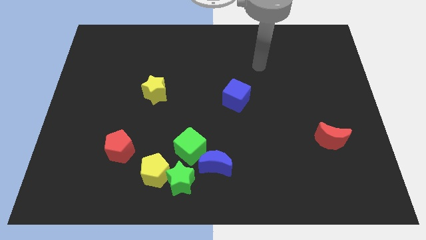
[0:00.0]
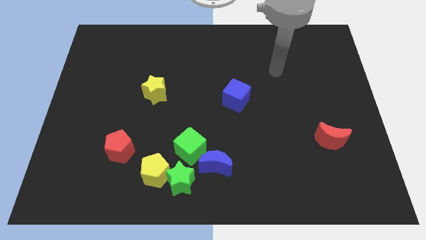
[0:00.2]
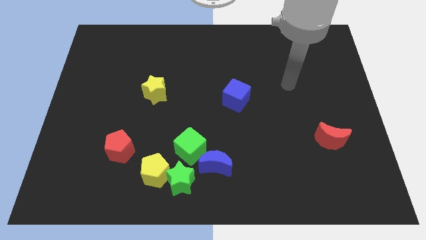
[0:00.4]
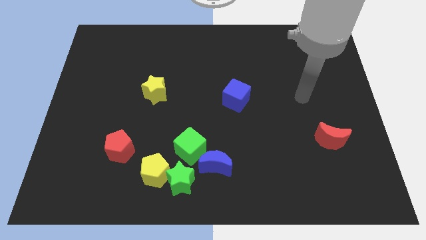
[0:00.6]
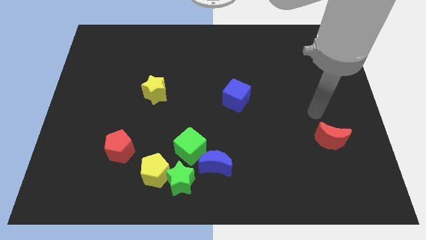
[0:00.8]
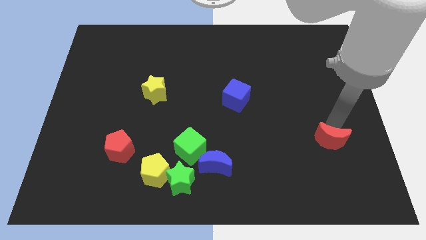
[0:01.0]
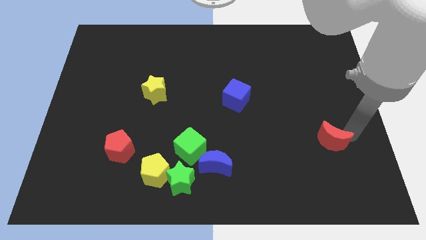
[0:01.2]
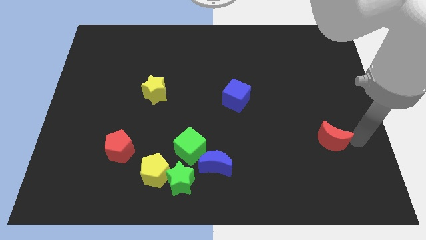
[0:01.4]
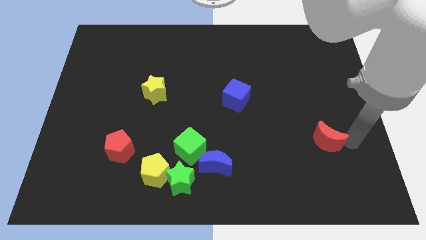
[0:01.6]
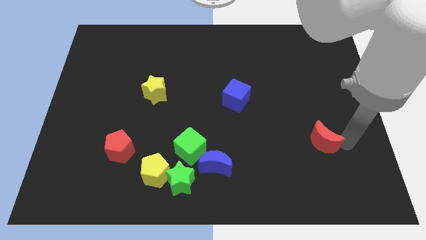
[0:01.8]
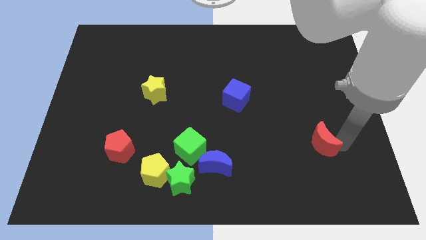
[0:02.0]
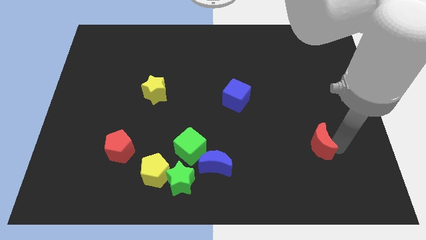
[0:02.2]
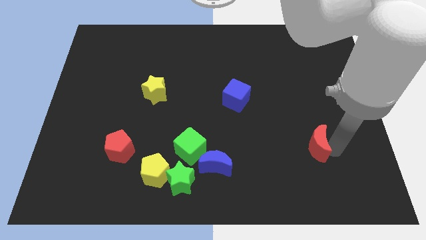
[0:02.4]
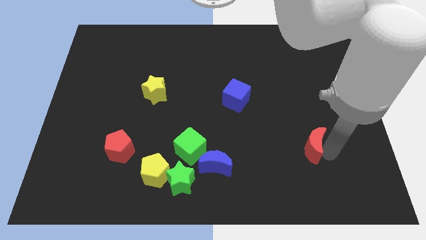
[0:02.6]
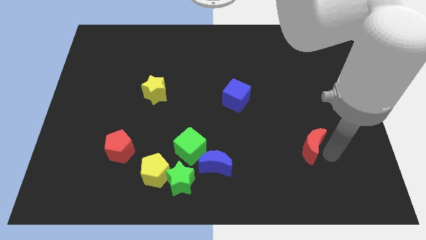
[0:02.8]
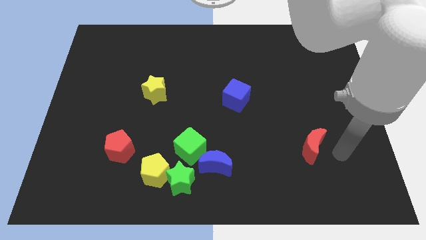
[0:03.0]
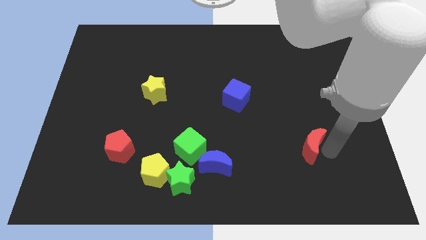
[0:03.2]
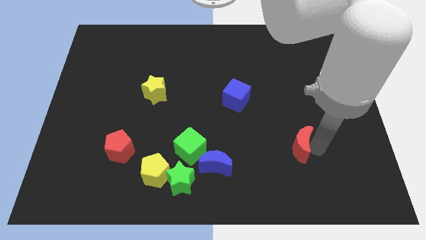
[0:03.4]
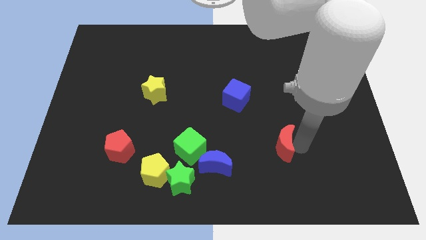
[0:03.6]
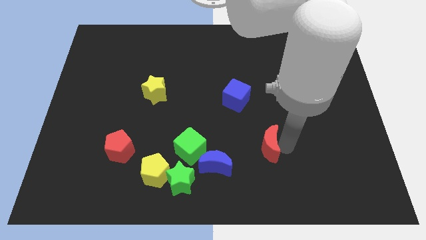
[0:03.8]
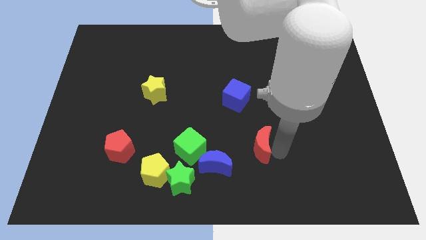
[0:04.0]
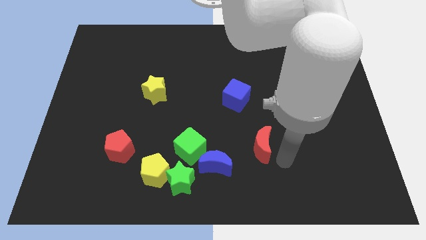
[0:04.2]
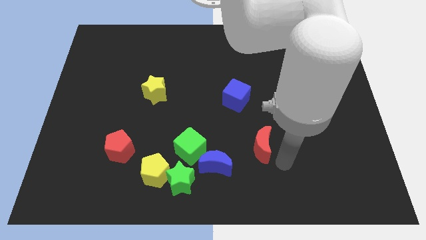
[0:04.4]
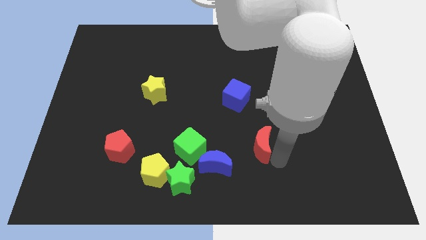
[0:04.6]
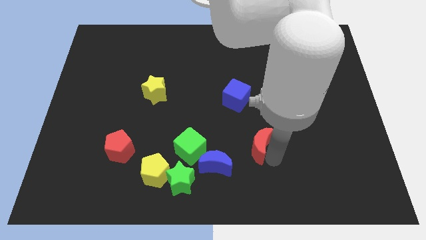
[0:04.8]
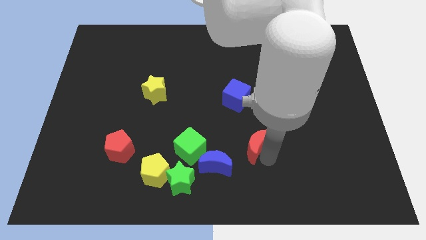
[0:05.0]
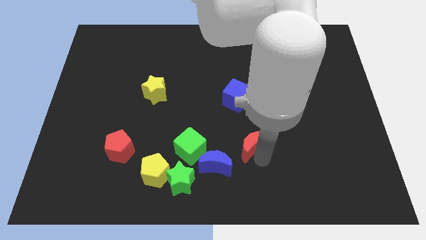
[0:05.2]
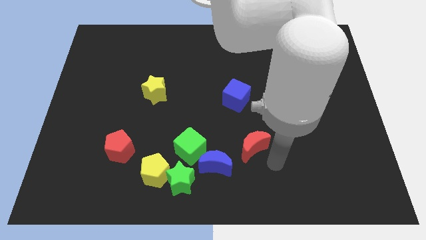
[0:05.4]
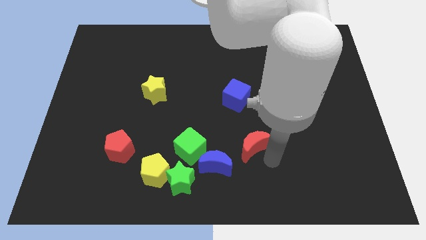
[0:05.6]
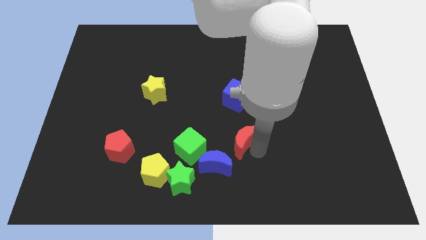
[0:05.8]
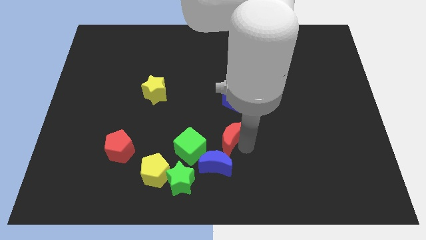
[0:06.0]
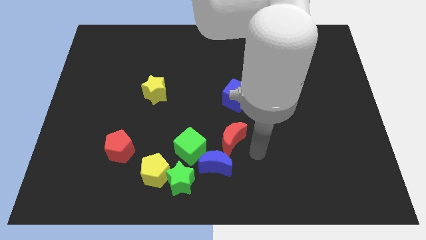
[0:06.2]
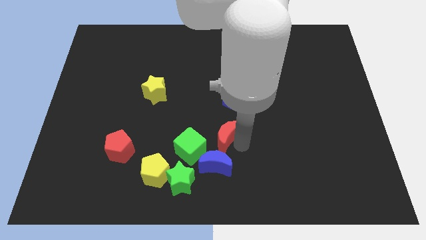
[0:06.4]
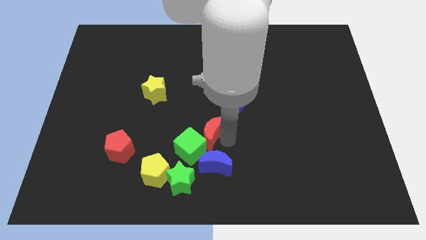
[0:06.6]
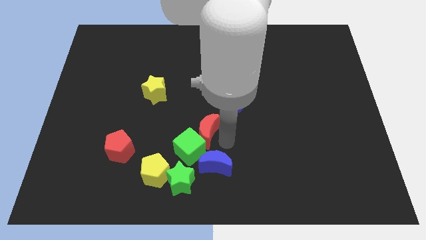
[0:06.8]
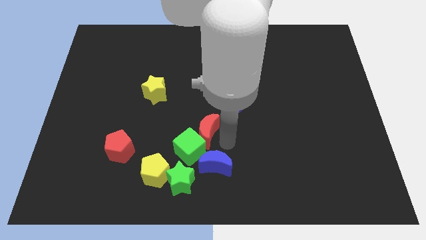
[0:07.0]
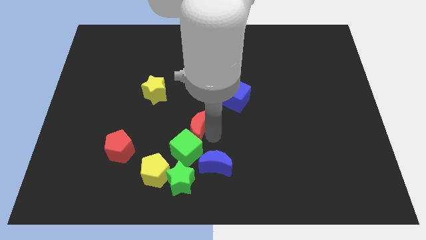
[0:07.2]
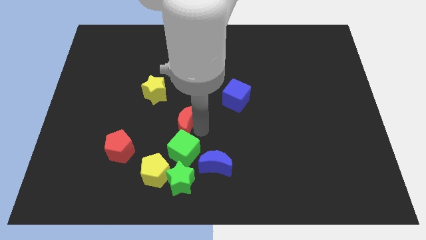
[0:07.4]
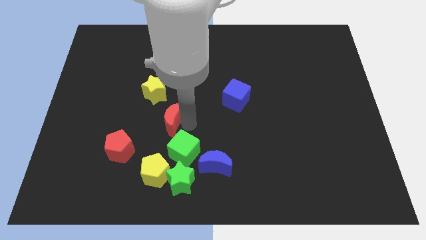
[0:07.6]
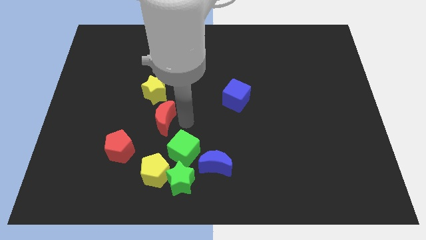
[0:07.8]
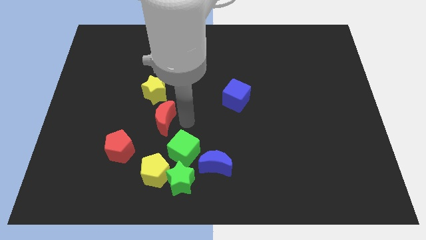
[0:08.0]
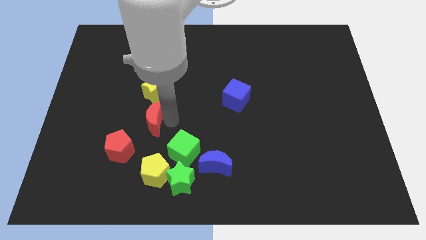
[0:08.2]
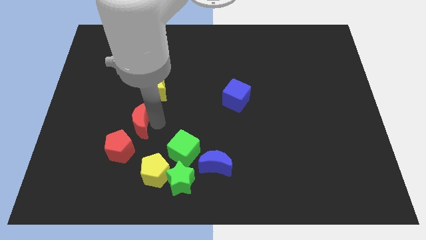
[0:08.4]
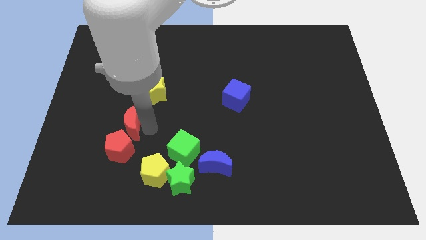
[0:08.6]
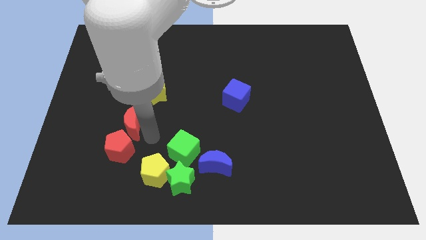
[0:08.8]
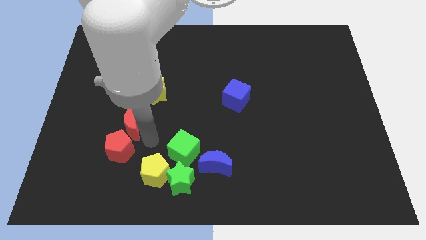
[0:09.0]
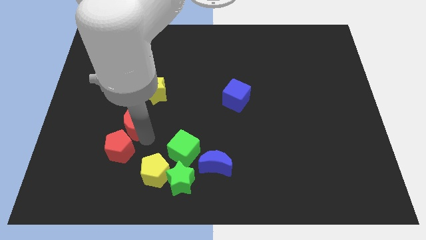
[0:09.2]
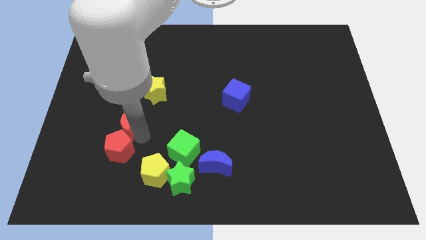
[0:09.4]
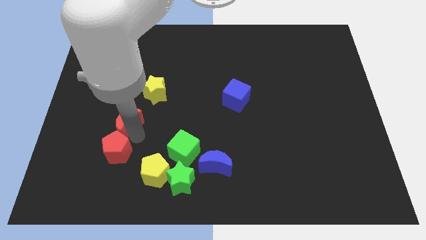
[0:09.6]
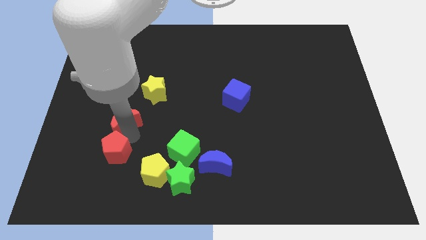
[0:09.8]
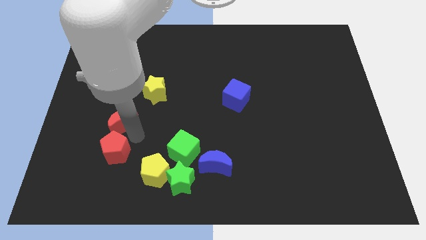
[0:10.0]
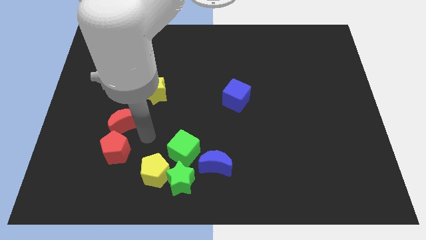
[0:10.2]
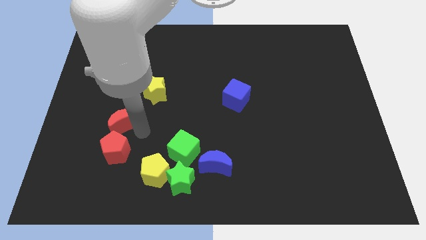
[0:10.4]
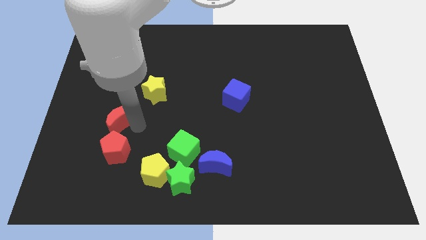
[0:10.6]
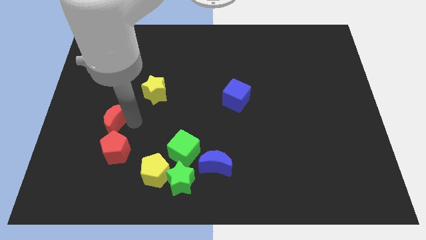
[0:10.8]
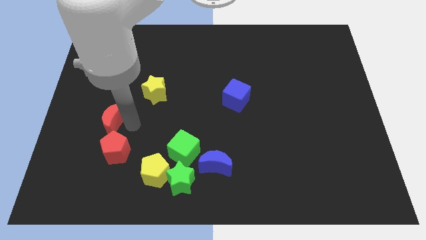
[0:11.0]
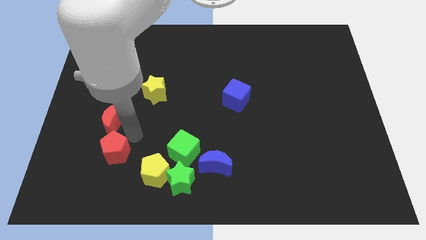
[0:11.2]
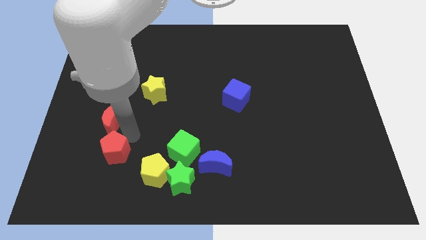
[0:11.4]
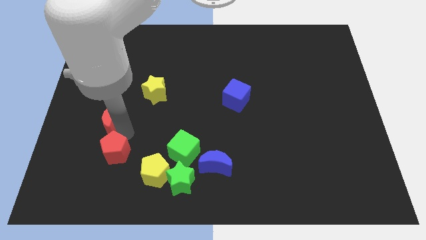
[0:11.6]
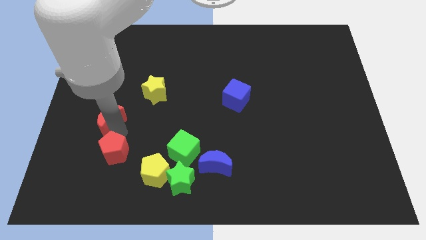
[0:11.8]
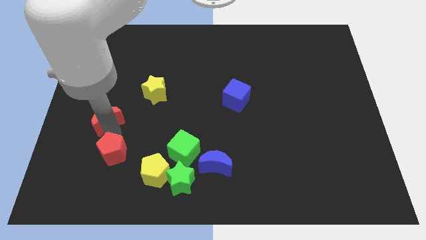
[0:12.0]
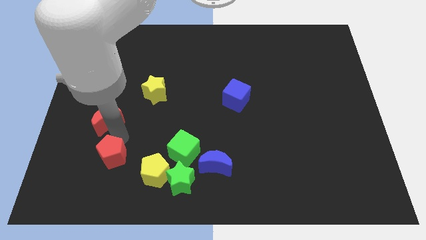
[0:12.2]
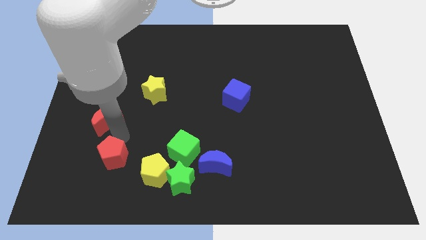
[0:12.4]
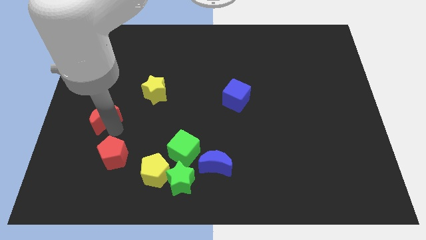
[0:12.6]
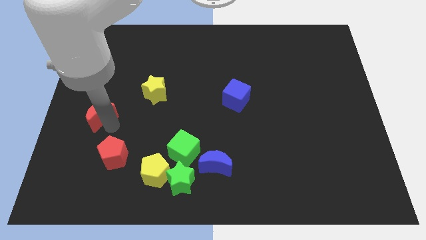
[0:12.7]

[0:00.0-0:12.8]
slide the red moon to the left side of the board
